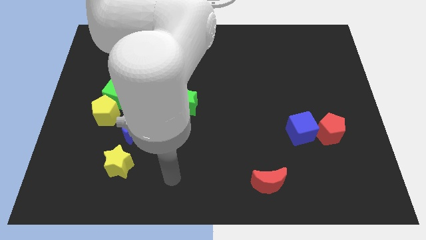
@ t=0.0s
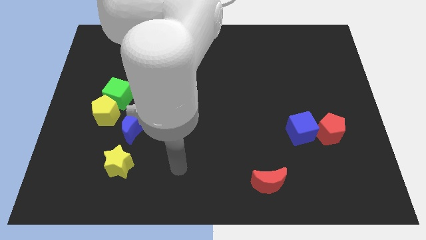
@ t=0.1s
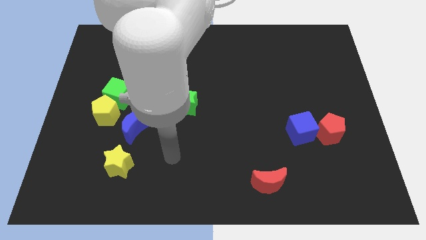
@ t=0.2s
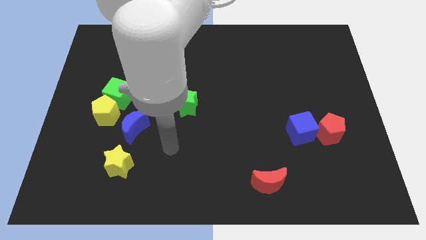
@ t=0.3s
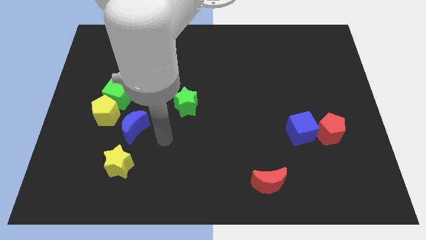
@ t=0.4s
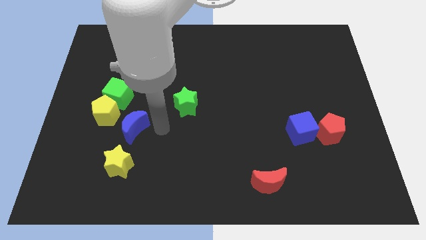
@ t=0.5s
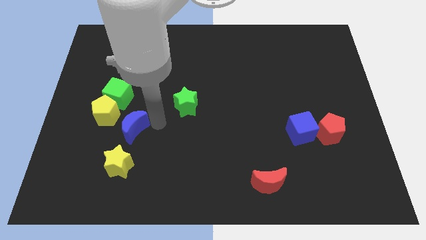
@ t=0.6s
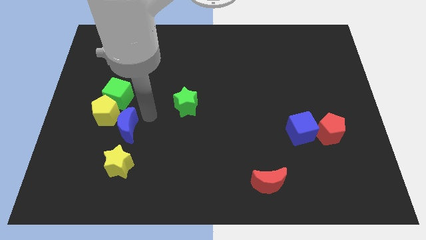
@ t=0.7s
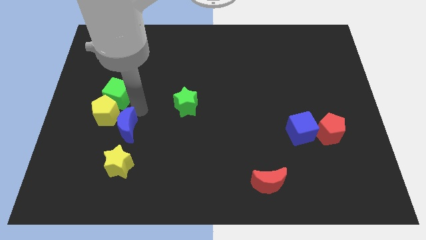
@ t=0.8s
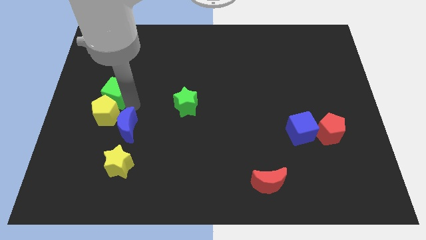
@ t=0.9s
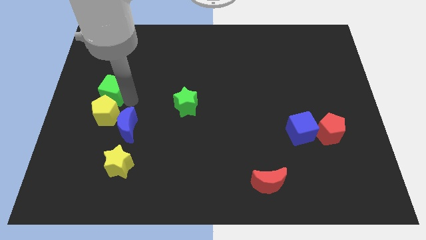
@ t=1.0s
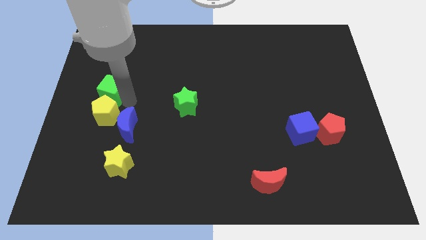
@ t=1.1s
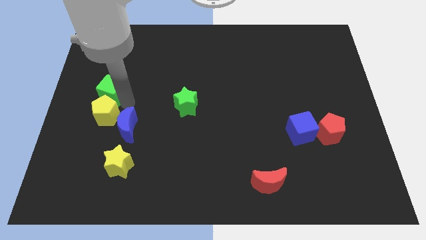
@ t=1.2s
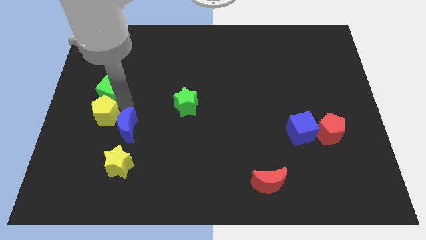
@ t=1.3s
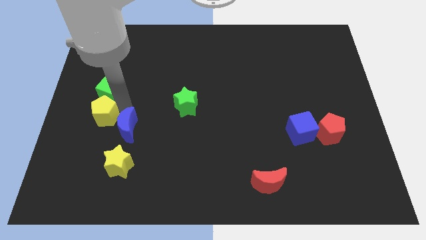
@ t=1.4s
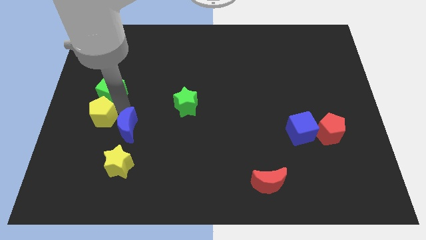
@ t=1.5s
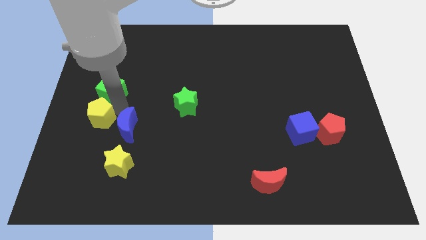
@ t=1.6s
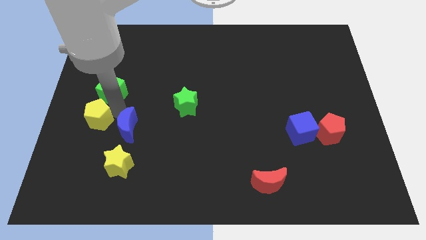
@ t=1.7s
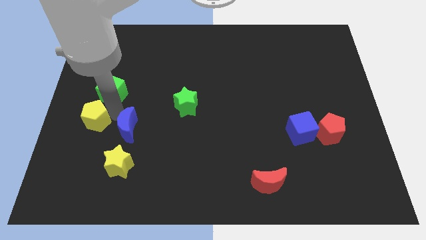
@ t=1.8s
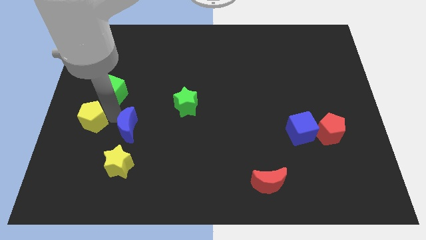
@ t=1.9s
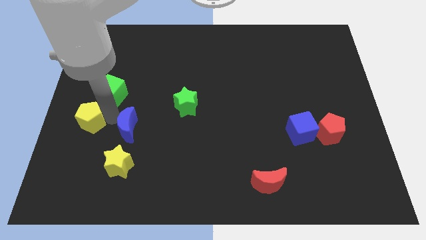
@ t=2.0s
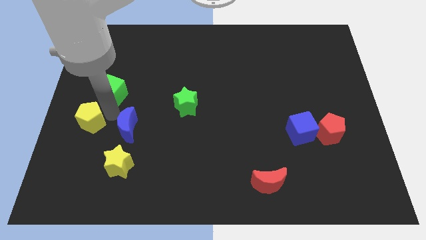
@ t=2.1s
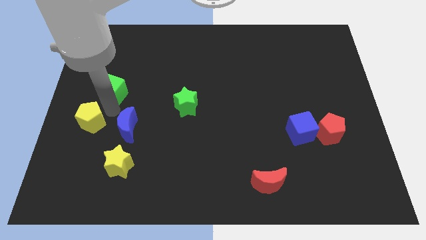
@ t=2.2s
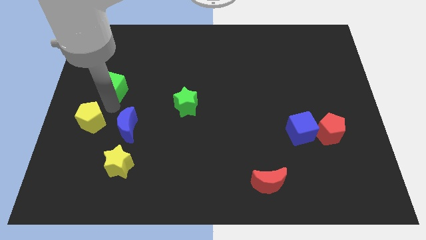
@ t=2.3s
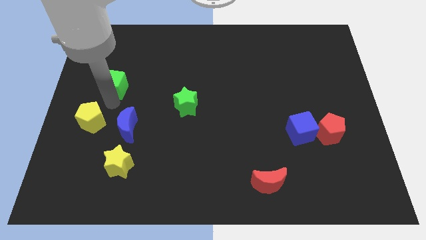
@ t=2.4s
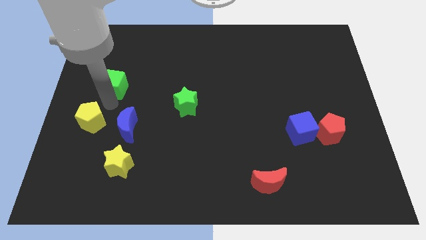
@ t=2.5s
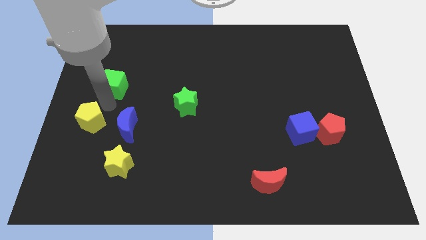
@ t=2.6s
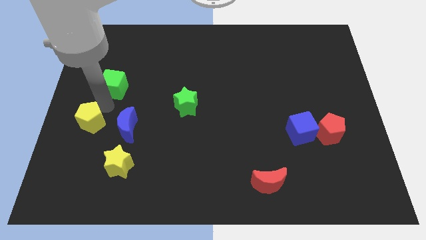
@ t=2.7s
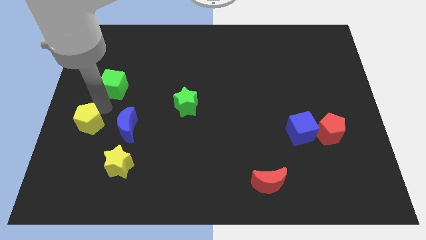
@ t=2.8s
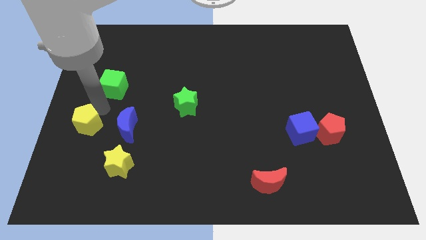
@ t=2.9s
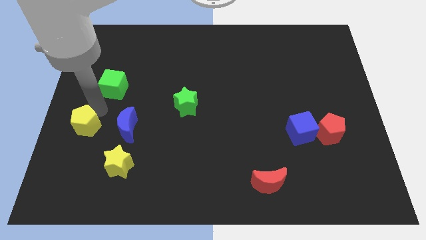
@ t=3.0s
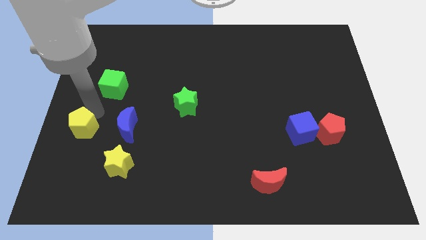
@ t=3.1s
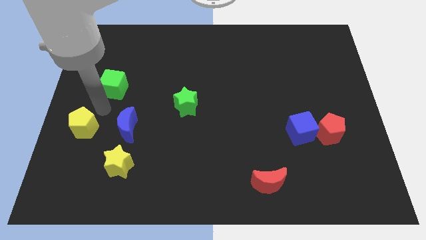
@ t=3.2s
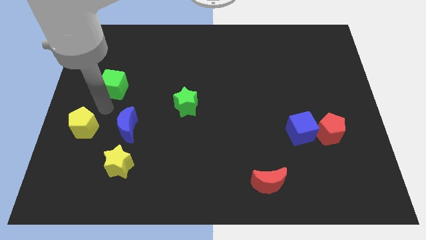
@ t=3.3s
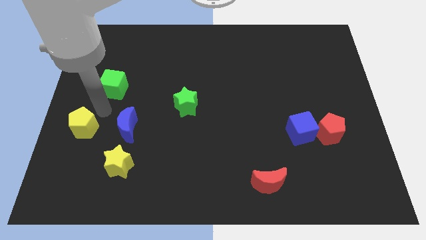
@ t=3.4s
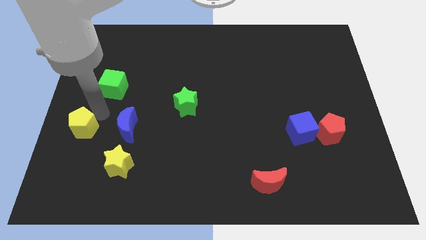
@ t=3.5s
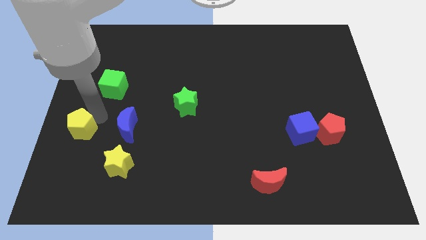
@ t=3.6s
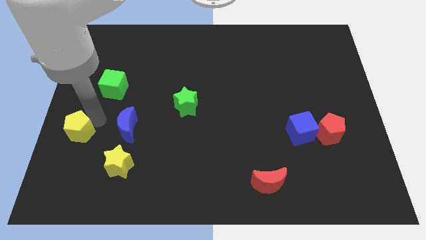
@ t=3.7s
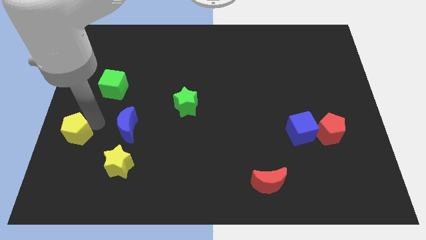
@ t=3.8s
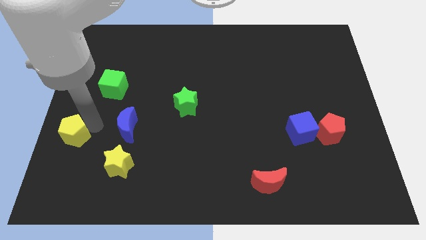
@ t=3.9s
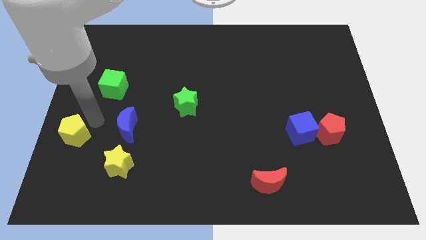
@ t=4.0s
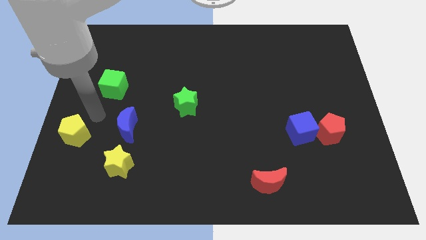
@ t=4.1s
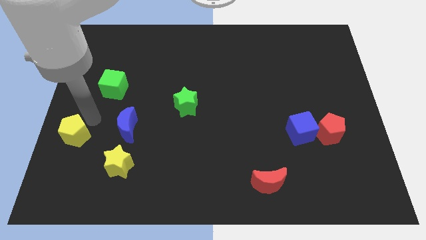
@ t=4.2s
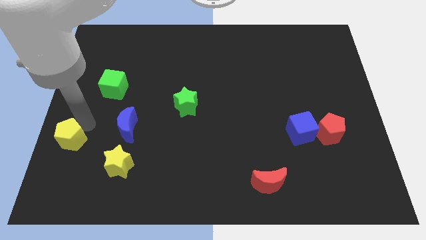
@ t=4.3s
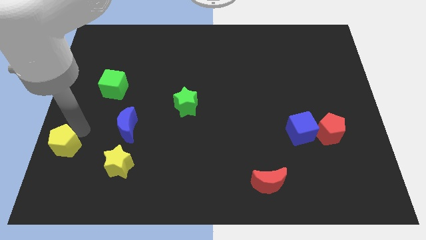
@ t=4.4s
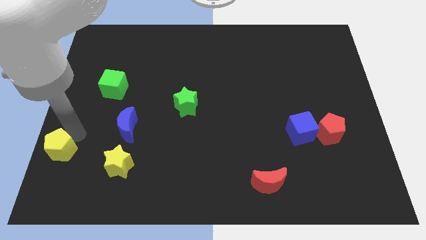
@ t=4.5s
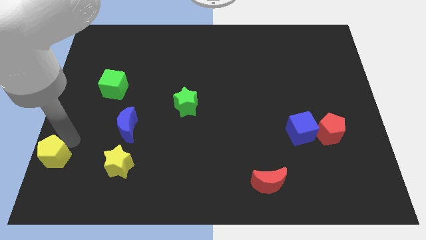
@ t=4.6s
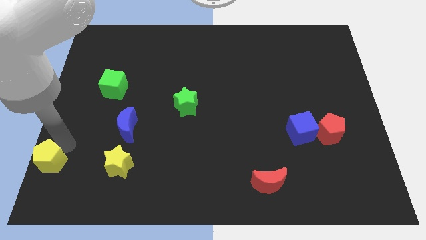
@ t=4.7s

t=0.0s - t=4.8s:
put the yellow pentagon to the bottom left corner

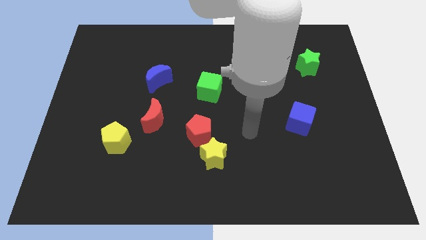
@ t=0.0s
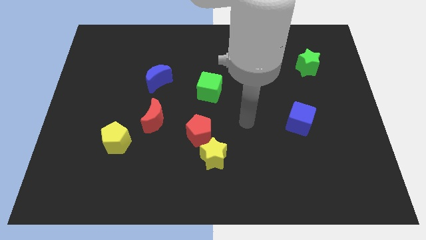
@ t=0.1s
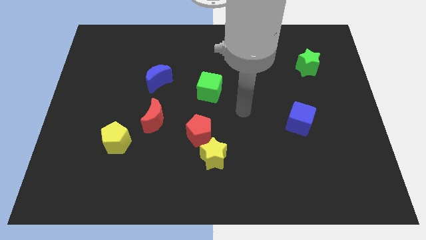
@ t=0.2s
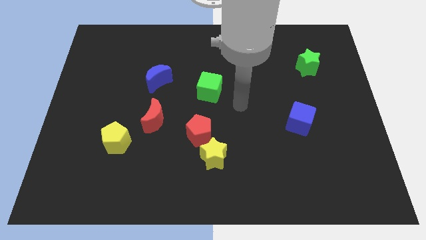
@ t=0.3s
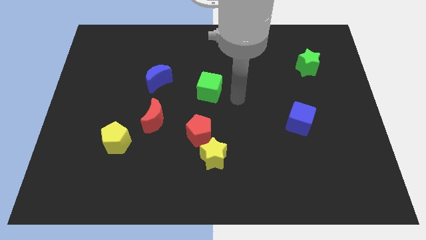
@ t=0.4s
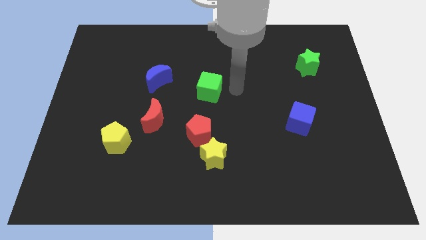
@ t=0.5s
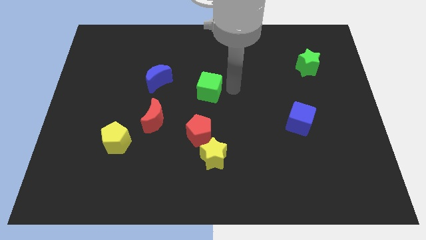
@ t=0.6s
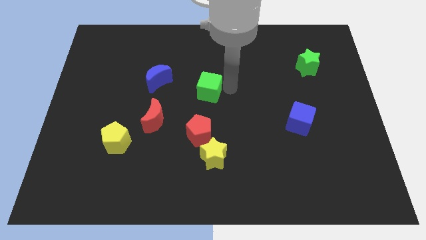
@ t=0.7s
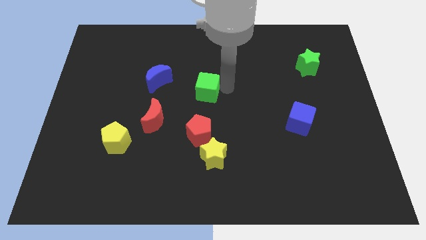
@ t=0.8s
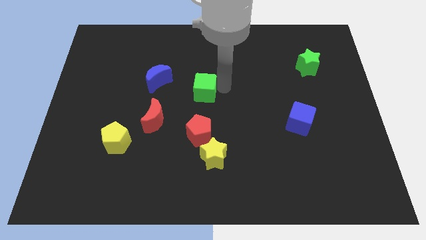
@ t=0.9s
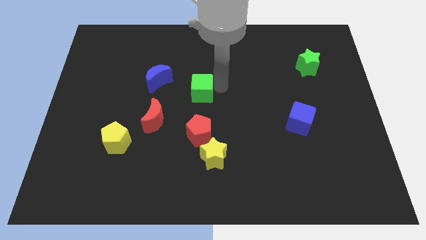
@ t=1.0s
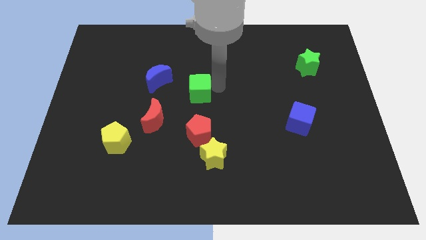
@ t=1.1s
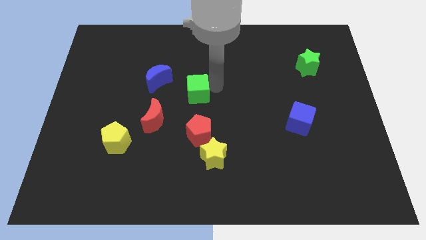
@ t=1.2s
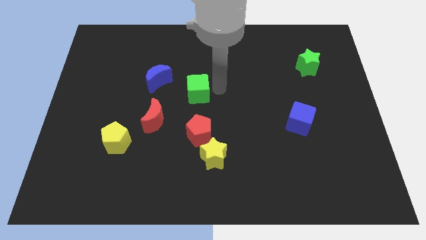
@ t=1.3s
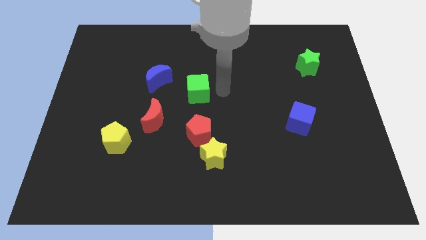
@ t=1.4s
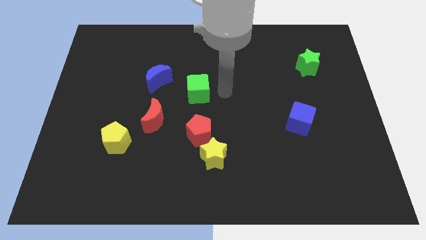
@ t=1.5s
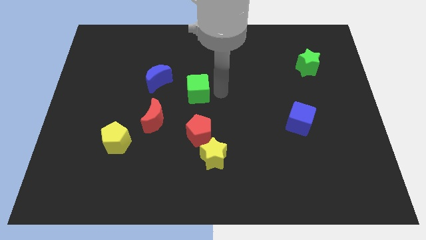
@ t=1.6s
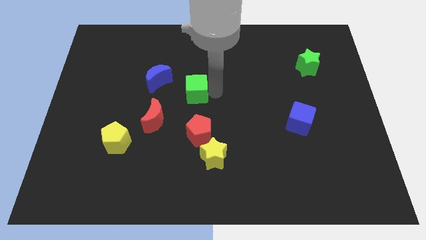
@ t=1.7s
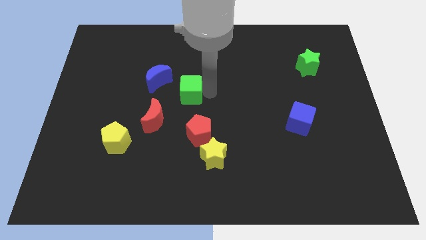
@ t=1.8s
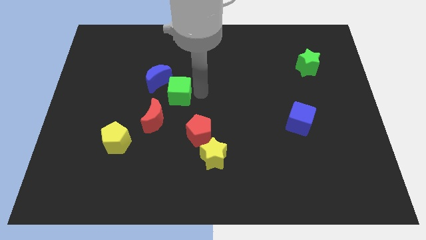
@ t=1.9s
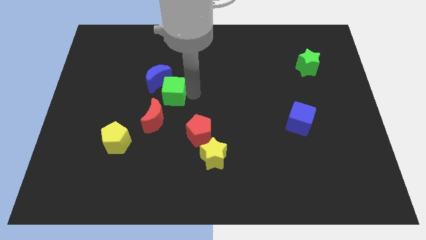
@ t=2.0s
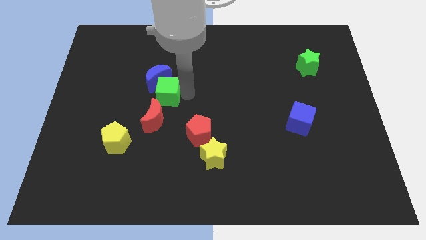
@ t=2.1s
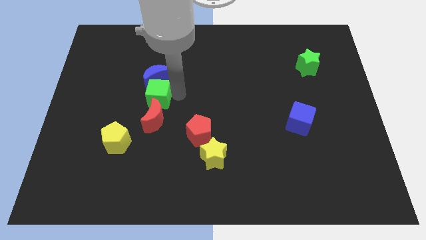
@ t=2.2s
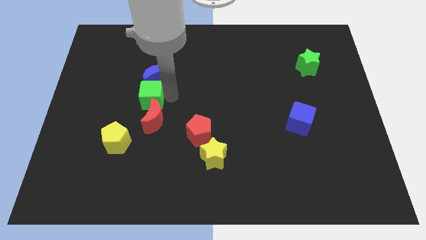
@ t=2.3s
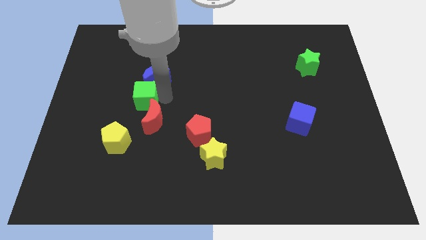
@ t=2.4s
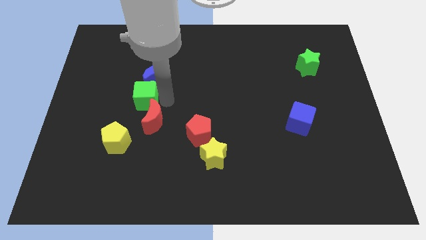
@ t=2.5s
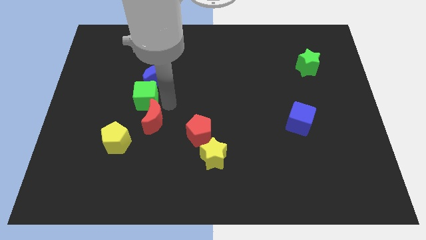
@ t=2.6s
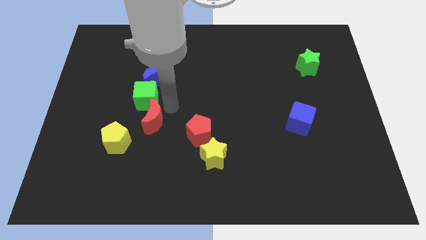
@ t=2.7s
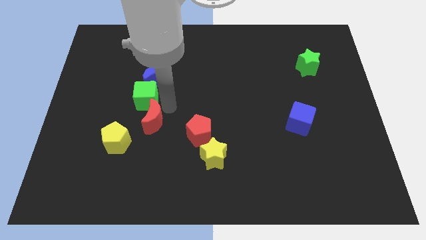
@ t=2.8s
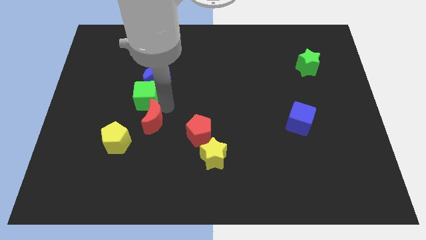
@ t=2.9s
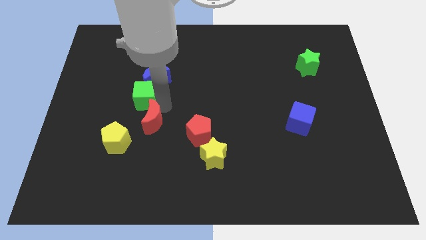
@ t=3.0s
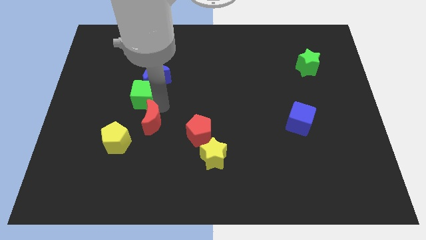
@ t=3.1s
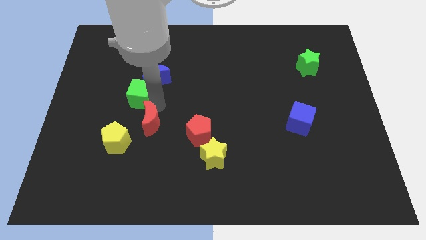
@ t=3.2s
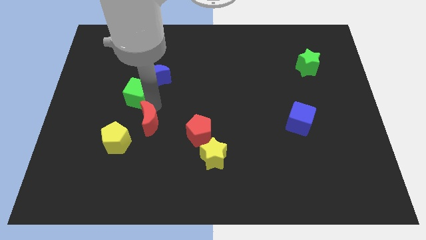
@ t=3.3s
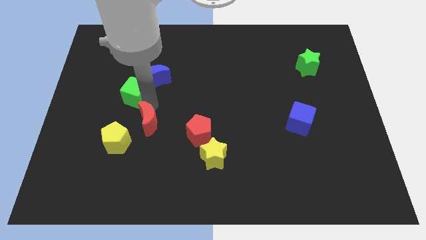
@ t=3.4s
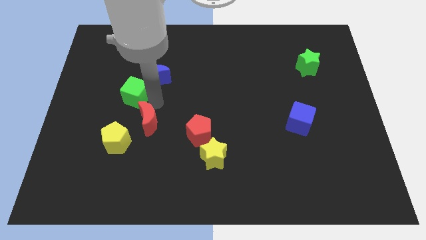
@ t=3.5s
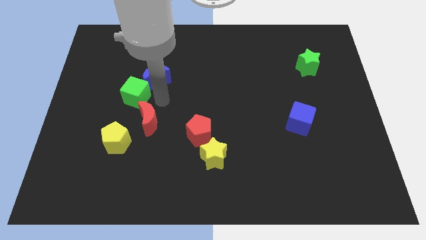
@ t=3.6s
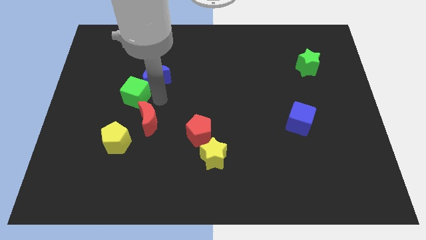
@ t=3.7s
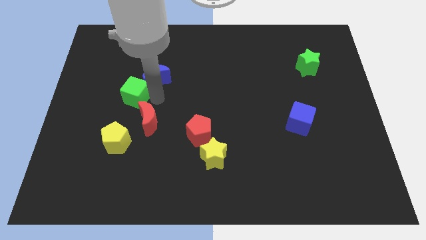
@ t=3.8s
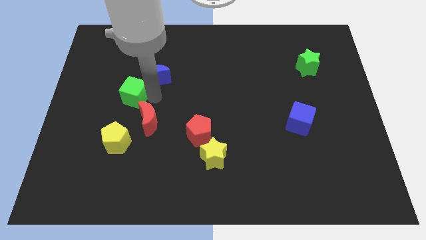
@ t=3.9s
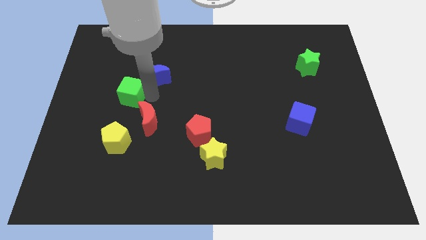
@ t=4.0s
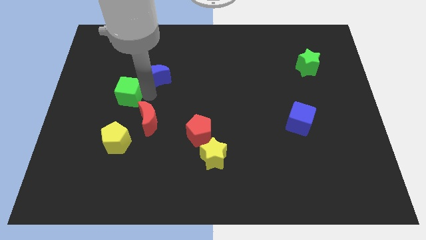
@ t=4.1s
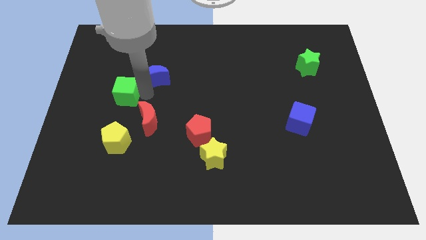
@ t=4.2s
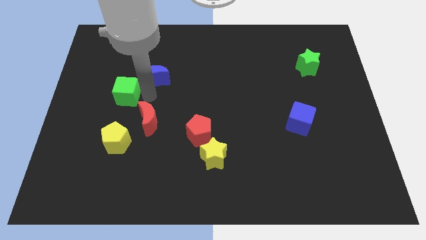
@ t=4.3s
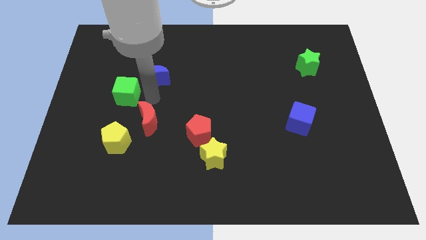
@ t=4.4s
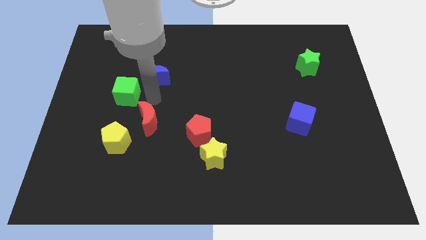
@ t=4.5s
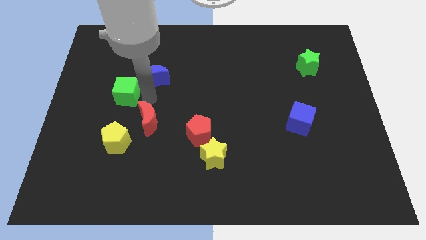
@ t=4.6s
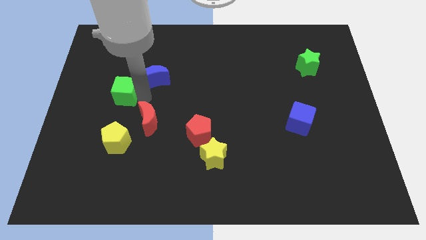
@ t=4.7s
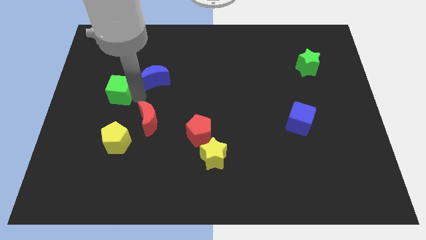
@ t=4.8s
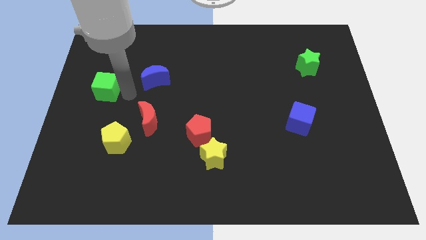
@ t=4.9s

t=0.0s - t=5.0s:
push the green cube to the left side of the board
